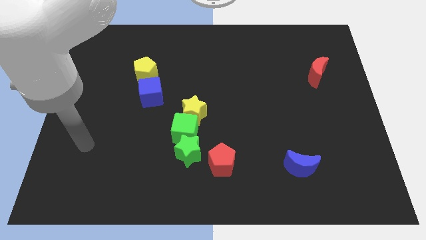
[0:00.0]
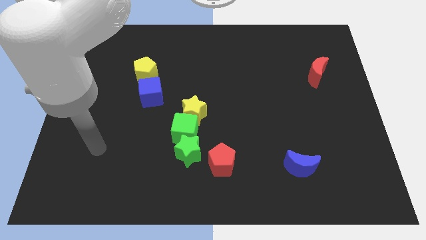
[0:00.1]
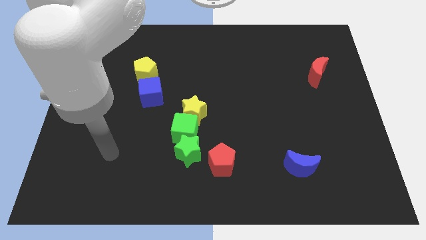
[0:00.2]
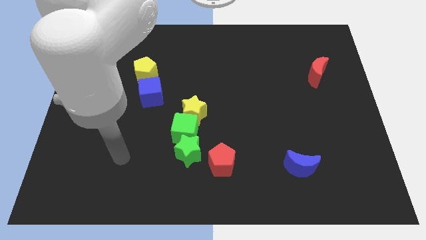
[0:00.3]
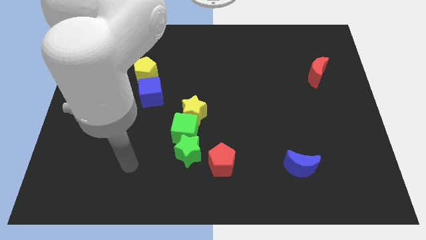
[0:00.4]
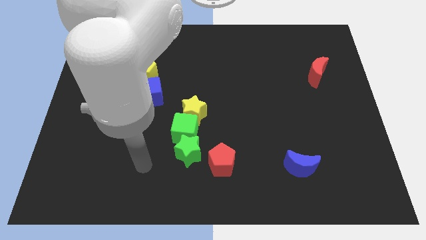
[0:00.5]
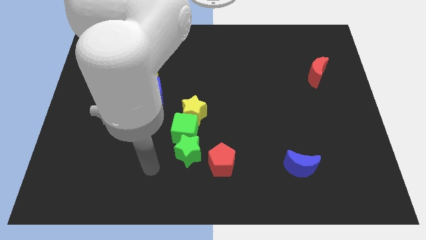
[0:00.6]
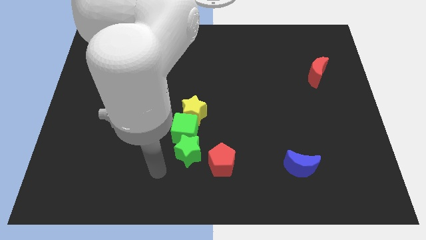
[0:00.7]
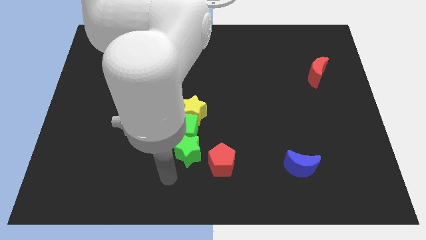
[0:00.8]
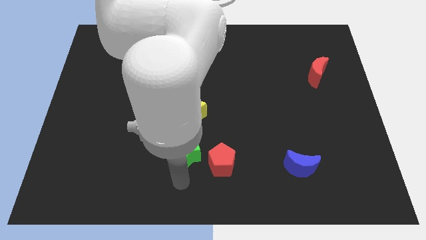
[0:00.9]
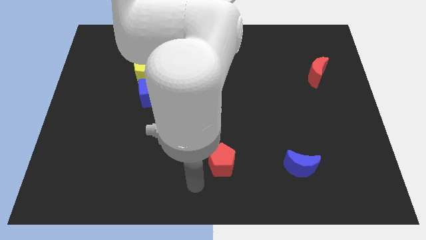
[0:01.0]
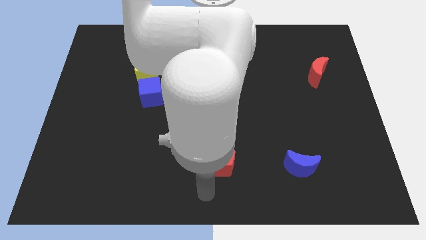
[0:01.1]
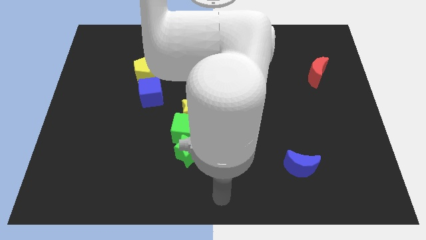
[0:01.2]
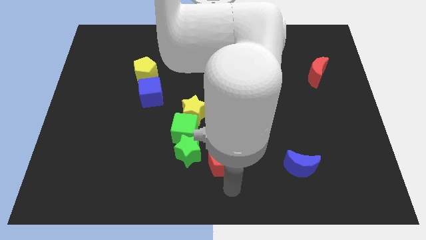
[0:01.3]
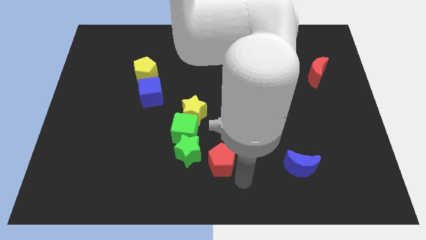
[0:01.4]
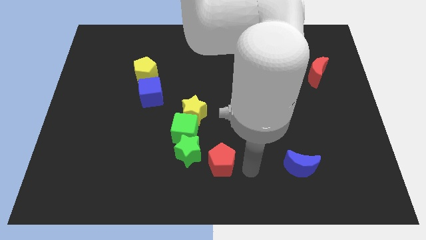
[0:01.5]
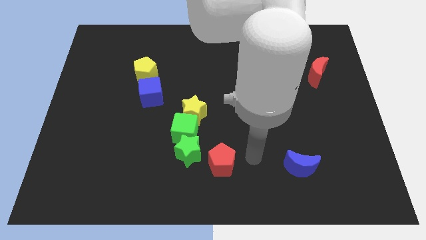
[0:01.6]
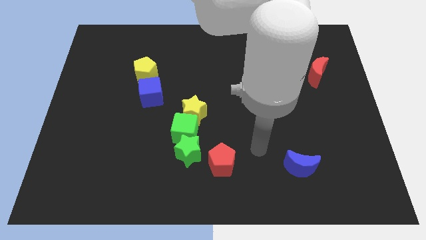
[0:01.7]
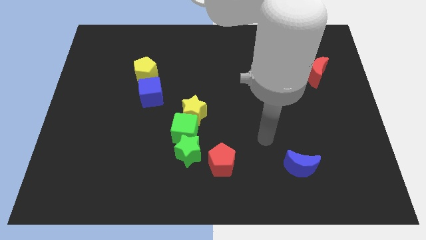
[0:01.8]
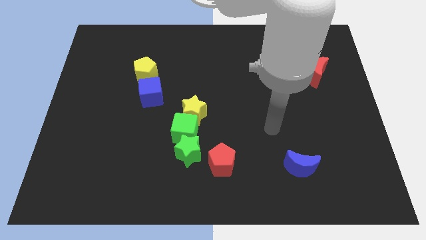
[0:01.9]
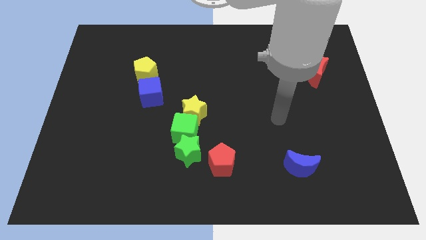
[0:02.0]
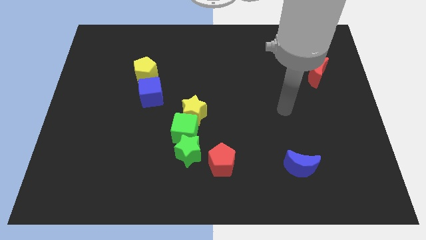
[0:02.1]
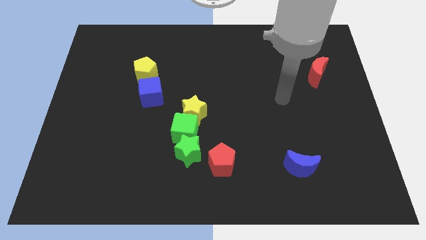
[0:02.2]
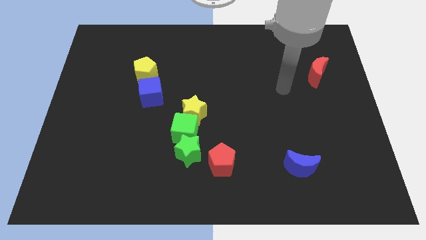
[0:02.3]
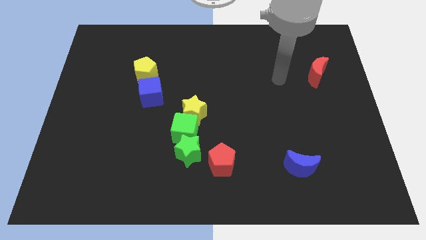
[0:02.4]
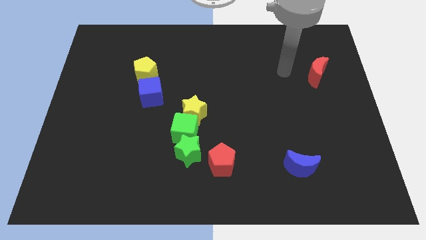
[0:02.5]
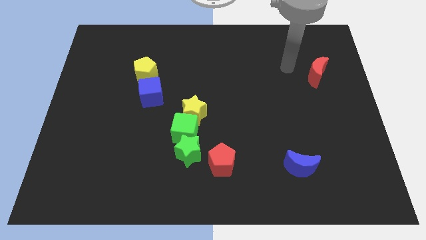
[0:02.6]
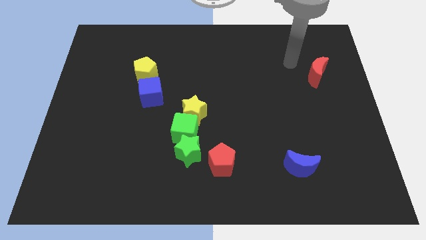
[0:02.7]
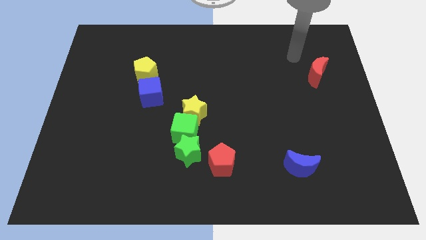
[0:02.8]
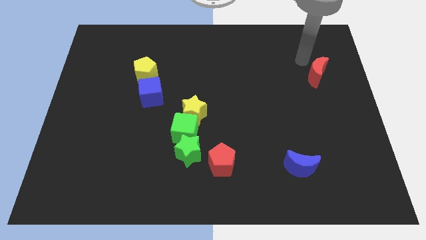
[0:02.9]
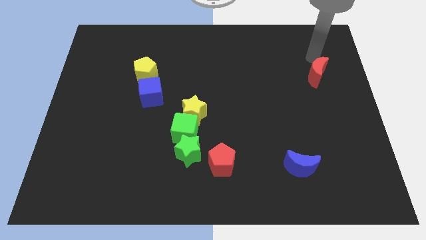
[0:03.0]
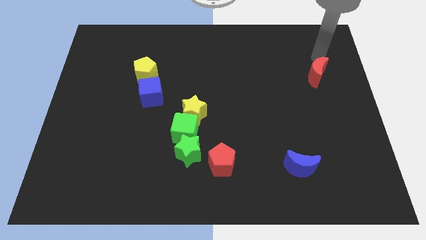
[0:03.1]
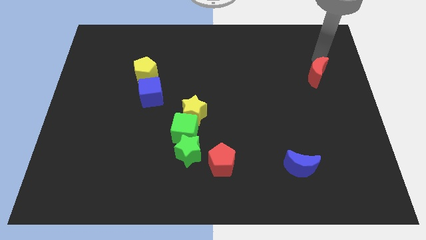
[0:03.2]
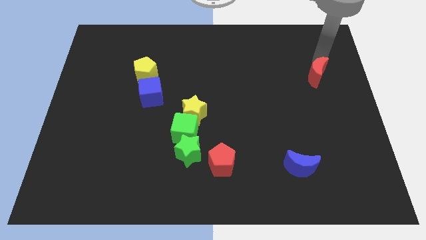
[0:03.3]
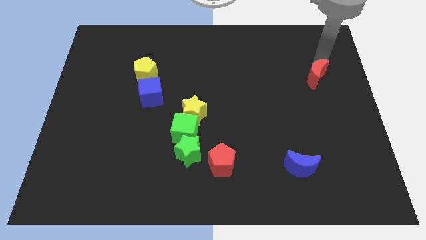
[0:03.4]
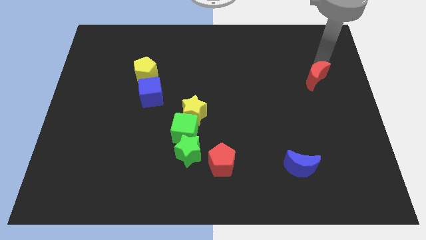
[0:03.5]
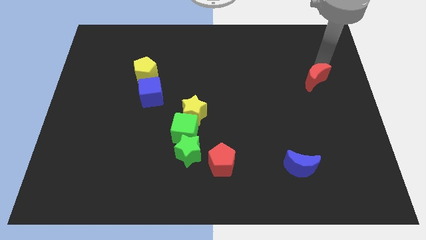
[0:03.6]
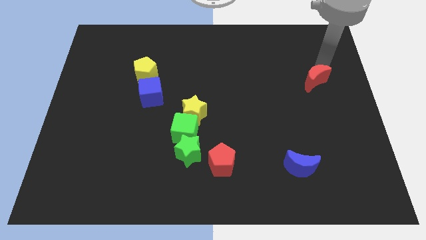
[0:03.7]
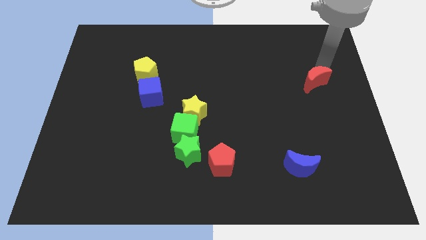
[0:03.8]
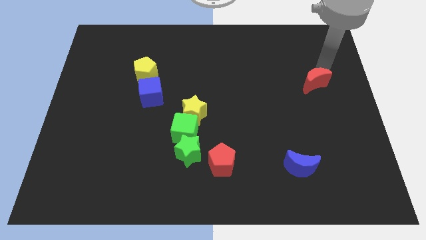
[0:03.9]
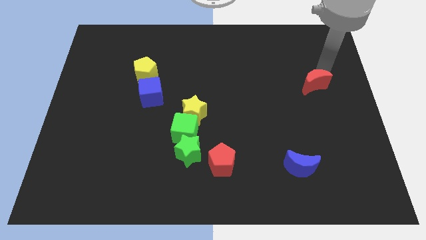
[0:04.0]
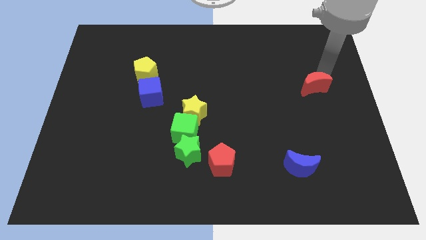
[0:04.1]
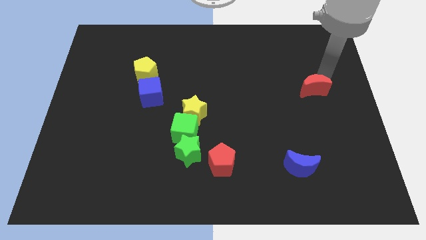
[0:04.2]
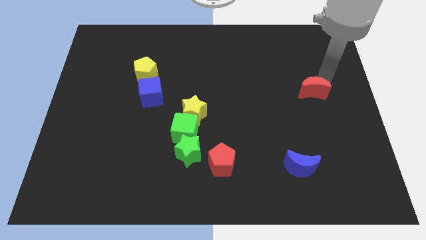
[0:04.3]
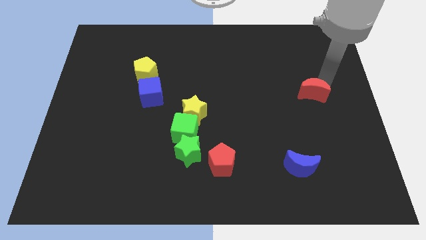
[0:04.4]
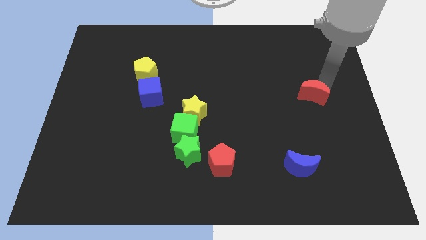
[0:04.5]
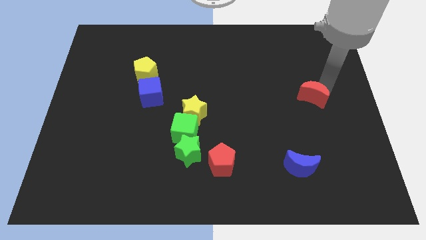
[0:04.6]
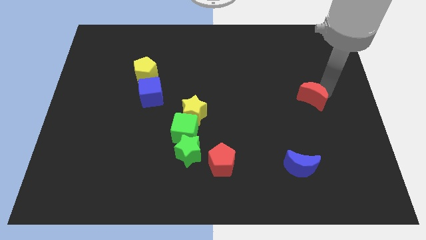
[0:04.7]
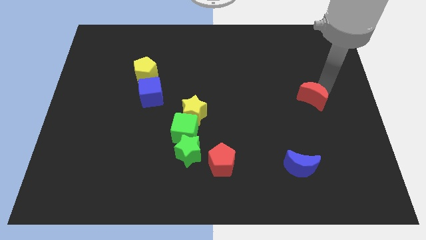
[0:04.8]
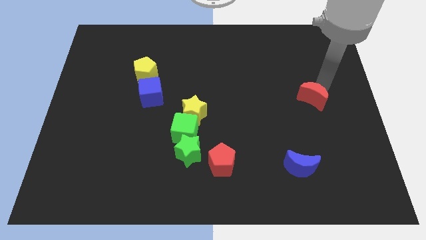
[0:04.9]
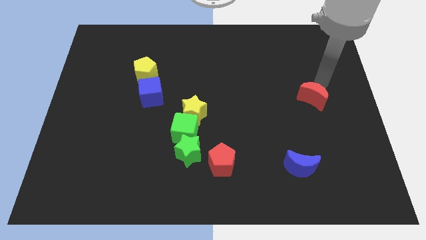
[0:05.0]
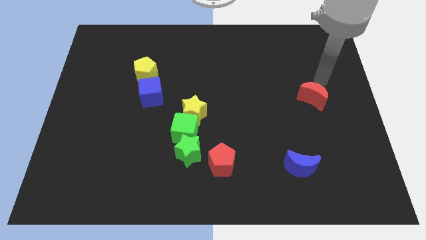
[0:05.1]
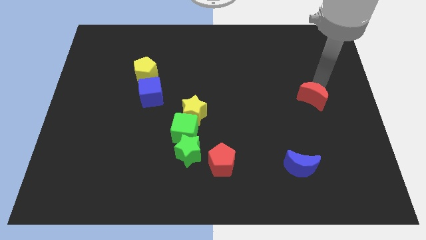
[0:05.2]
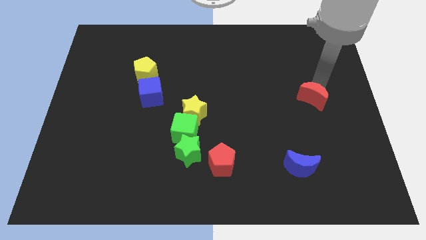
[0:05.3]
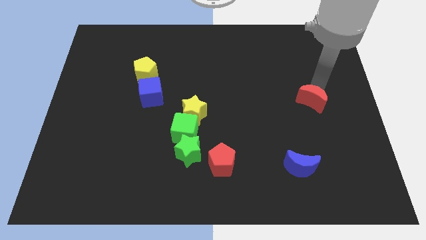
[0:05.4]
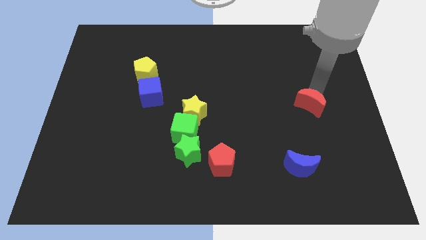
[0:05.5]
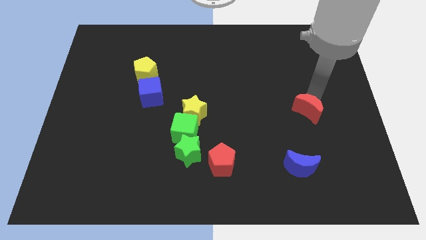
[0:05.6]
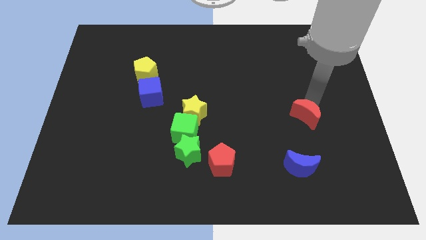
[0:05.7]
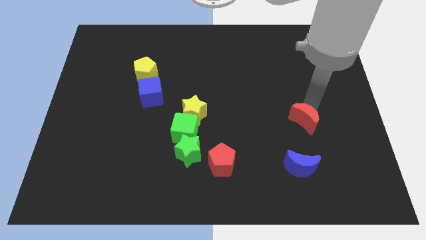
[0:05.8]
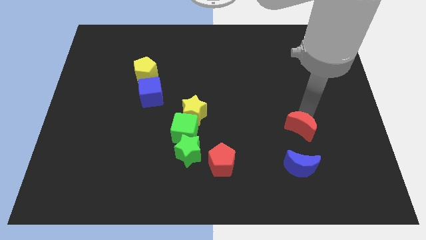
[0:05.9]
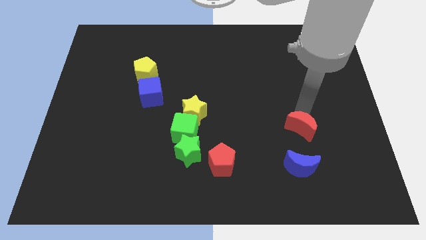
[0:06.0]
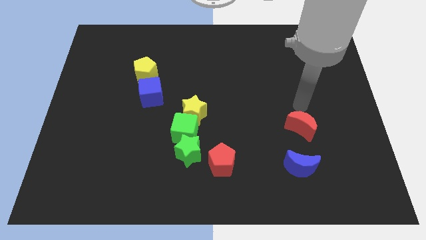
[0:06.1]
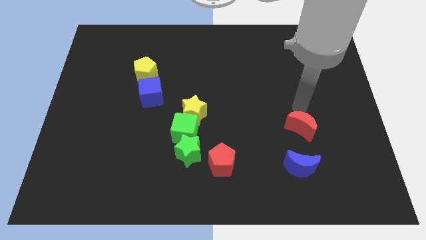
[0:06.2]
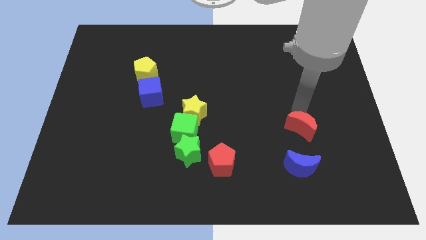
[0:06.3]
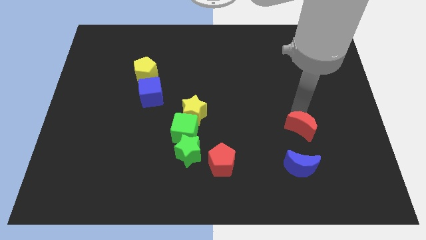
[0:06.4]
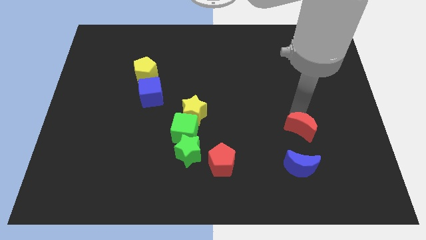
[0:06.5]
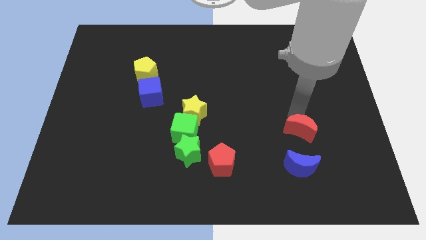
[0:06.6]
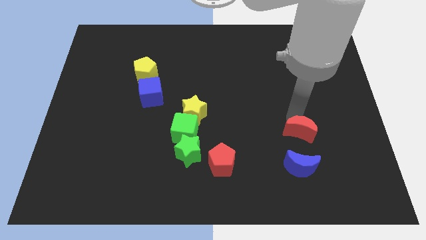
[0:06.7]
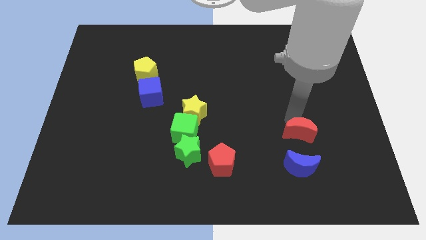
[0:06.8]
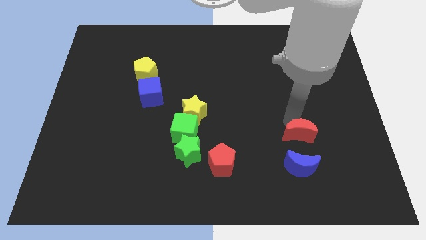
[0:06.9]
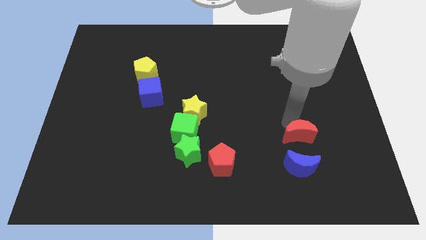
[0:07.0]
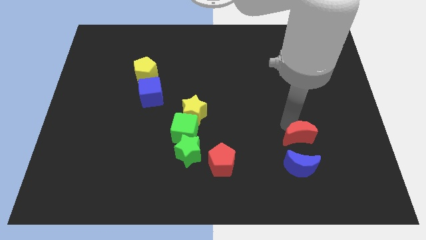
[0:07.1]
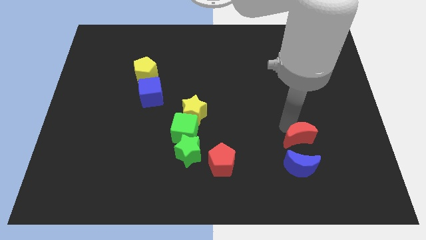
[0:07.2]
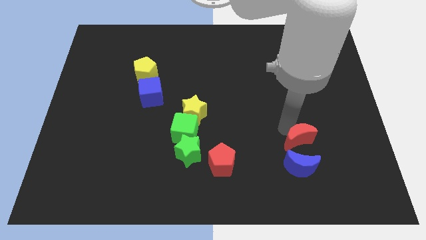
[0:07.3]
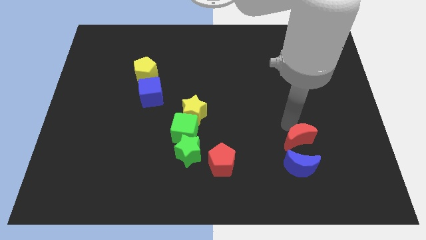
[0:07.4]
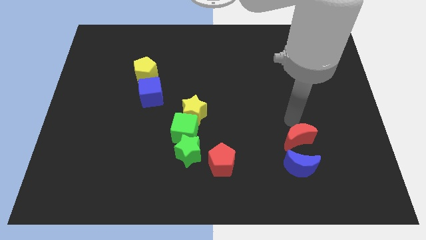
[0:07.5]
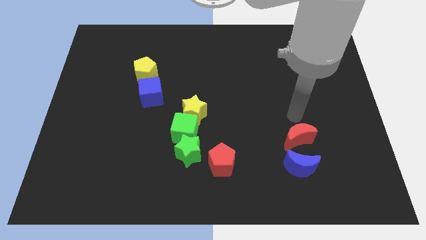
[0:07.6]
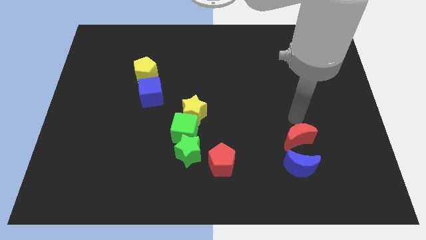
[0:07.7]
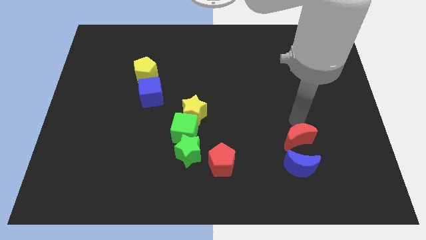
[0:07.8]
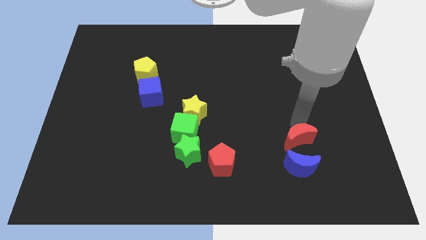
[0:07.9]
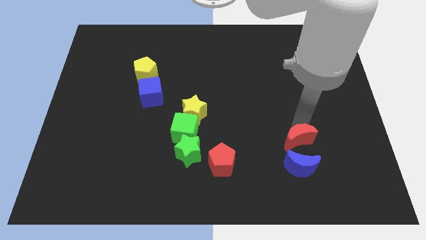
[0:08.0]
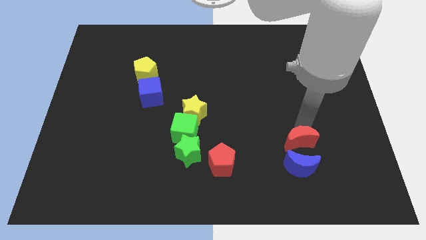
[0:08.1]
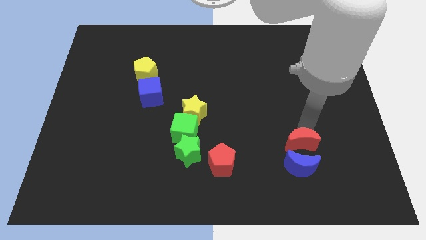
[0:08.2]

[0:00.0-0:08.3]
push the red moon next to the blue moon
